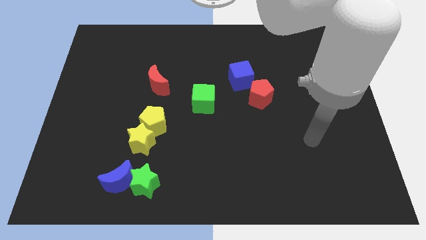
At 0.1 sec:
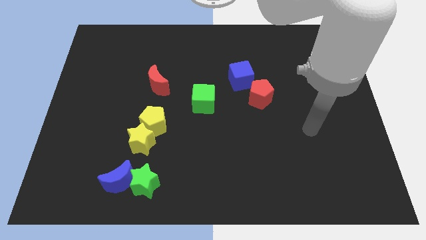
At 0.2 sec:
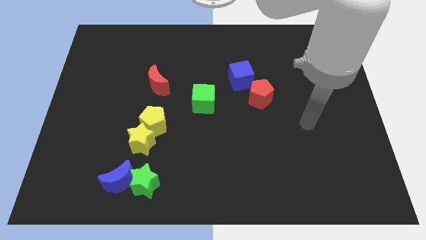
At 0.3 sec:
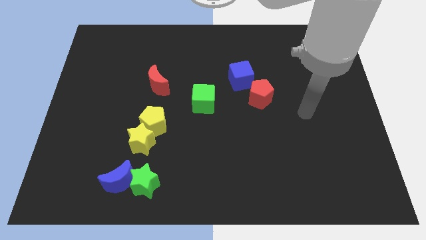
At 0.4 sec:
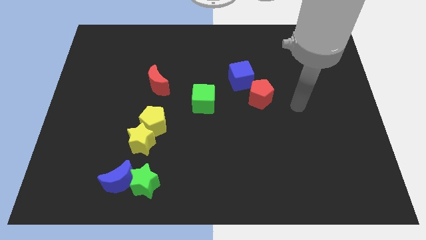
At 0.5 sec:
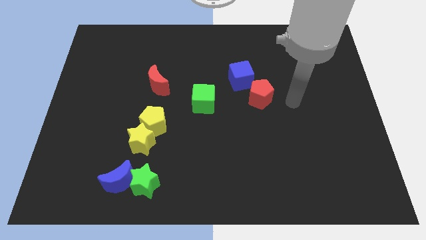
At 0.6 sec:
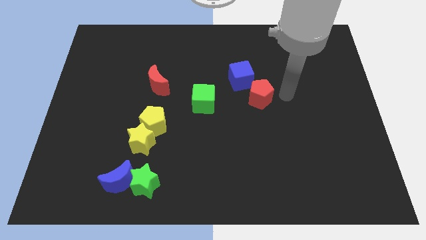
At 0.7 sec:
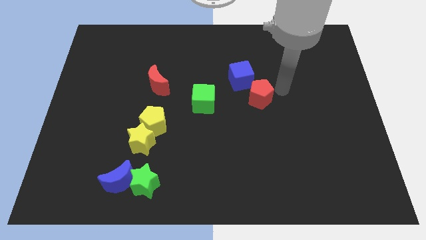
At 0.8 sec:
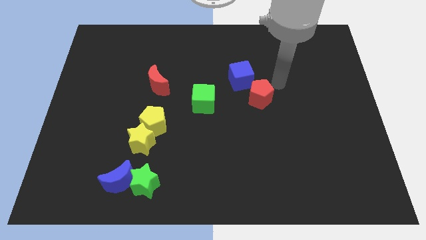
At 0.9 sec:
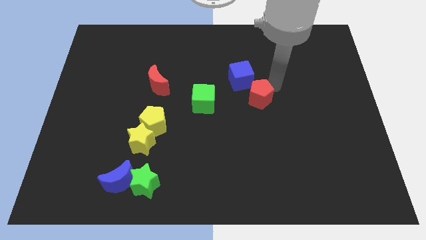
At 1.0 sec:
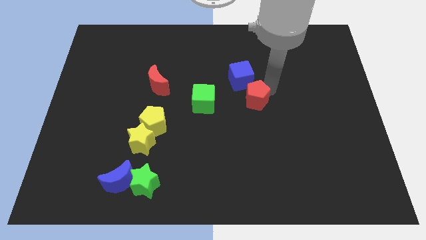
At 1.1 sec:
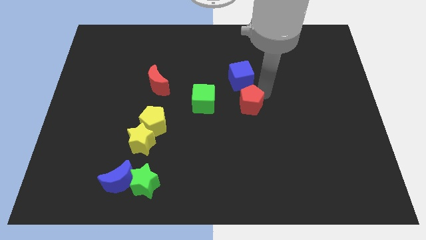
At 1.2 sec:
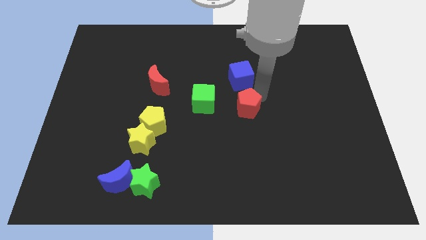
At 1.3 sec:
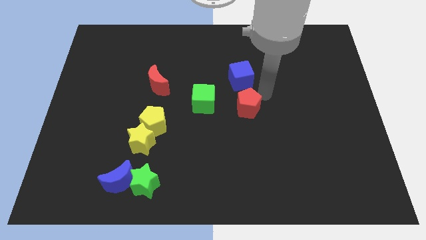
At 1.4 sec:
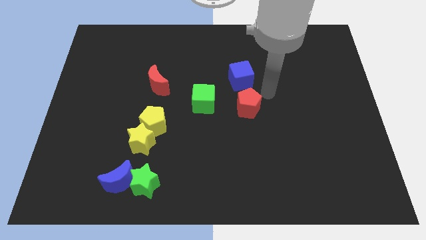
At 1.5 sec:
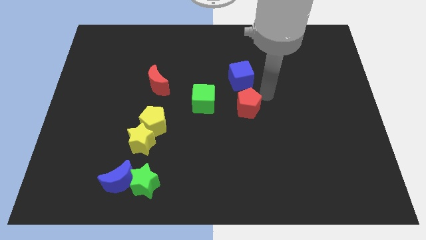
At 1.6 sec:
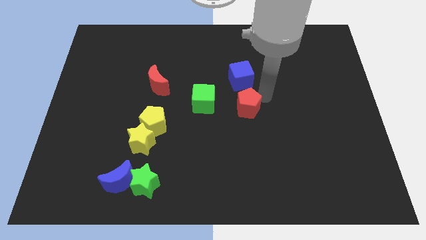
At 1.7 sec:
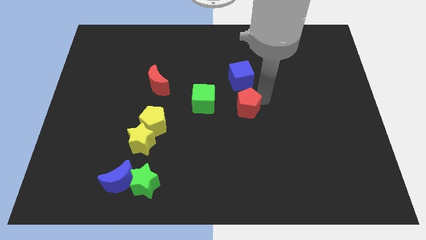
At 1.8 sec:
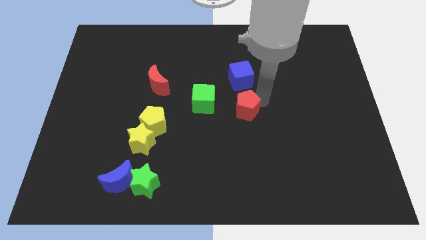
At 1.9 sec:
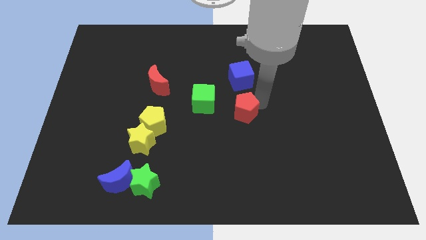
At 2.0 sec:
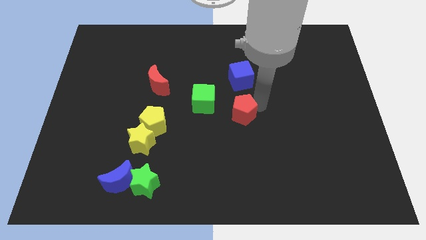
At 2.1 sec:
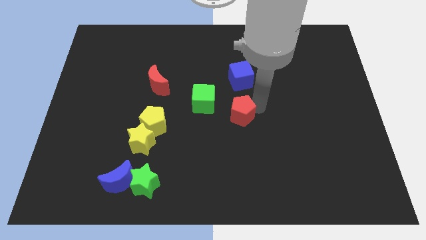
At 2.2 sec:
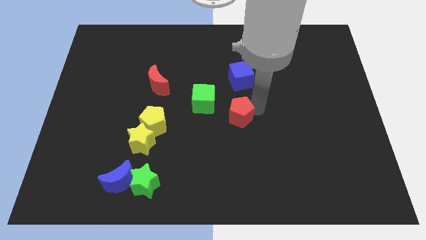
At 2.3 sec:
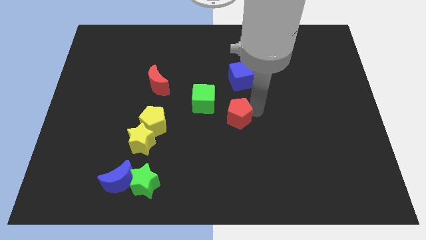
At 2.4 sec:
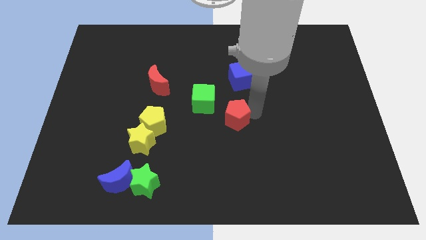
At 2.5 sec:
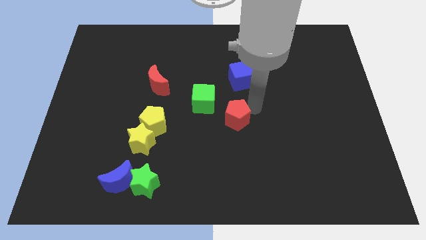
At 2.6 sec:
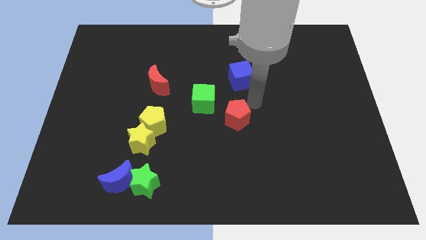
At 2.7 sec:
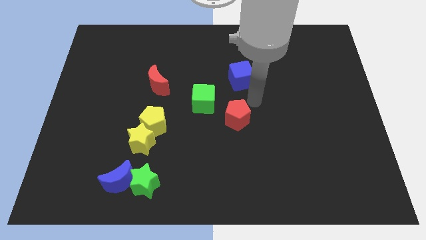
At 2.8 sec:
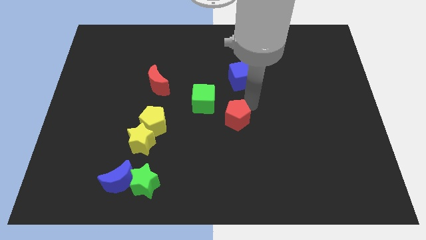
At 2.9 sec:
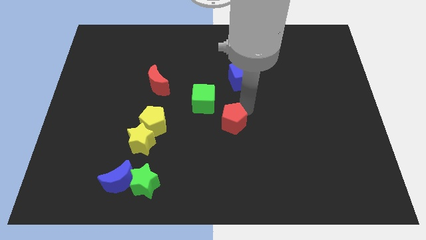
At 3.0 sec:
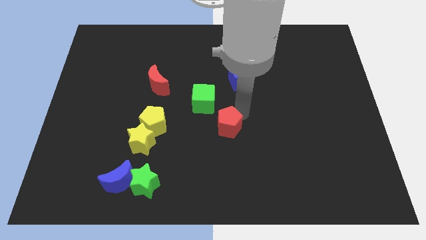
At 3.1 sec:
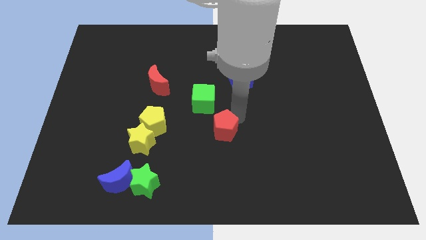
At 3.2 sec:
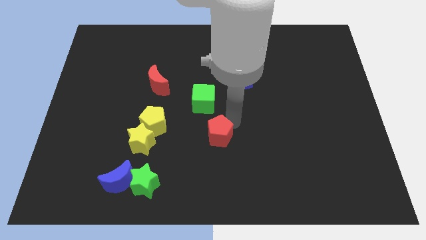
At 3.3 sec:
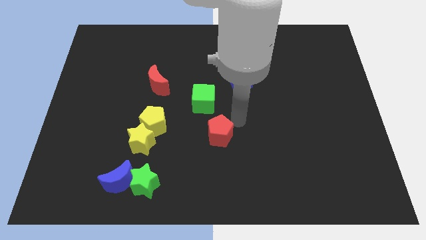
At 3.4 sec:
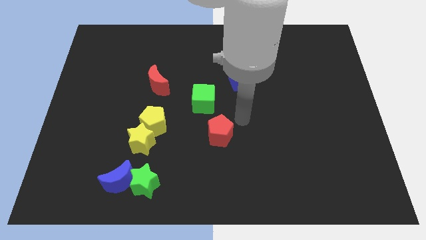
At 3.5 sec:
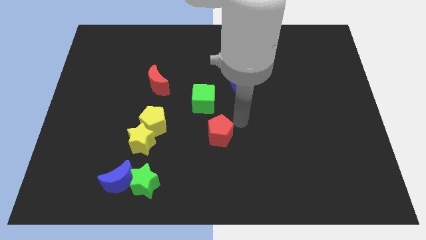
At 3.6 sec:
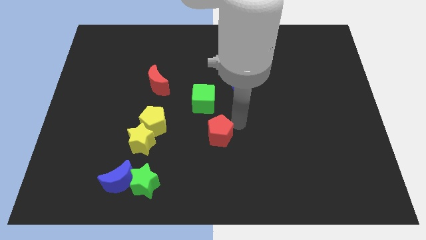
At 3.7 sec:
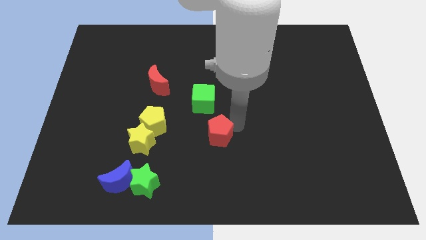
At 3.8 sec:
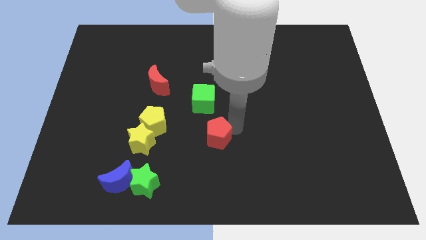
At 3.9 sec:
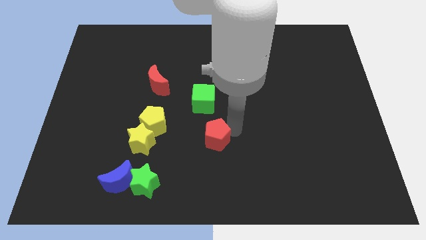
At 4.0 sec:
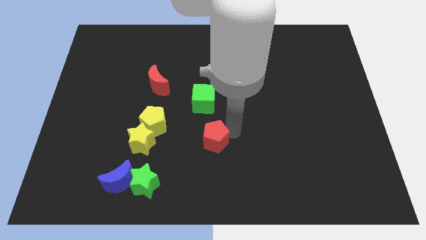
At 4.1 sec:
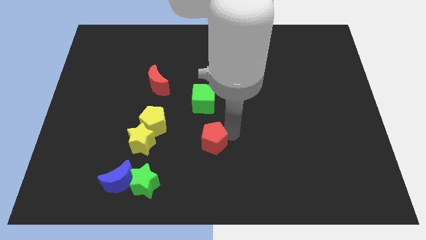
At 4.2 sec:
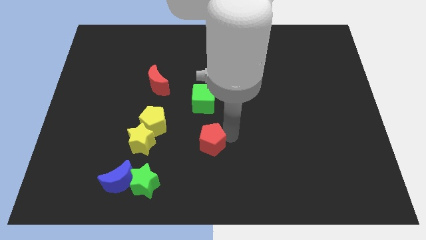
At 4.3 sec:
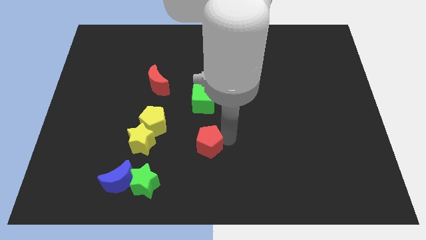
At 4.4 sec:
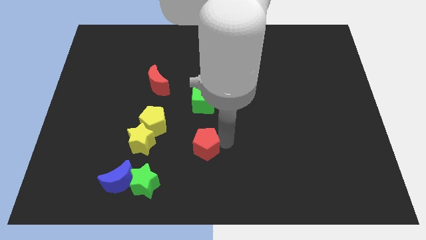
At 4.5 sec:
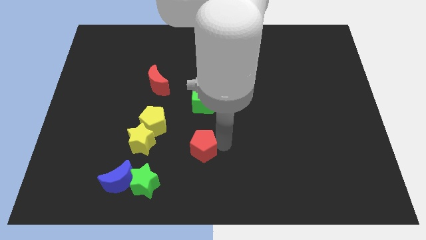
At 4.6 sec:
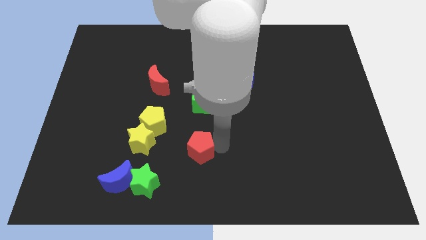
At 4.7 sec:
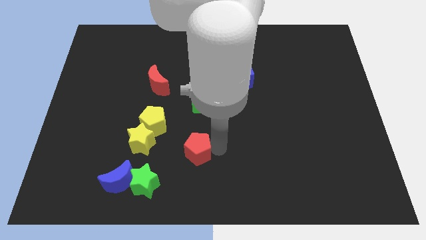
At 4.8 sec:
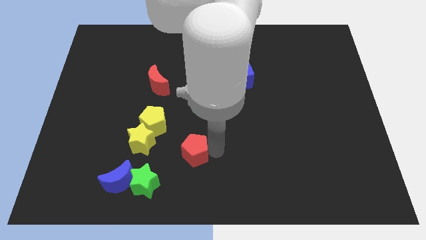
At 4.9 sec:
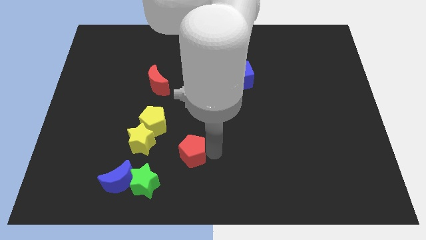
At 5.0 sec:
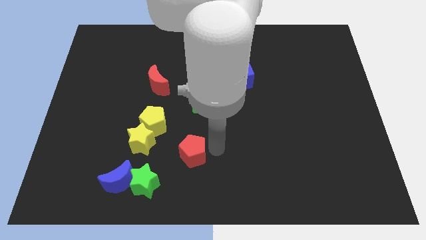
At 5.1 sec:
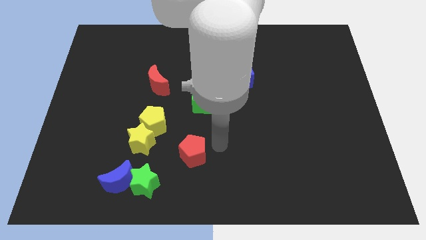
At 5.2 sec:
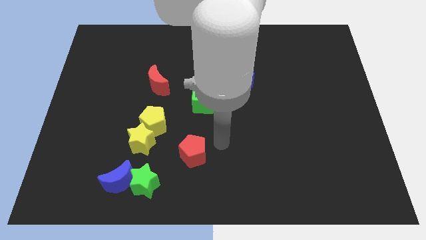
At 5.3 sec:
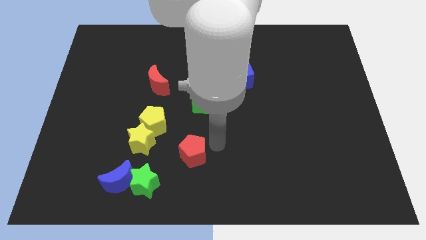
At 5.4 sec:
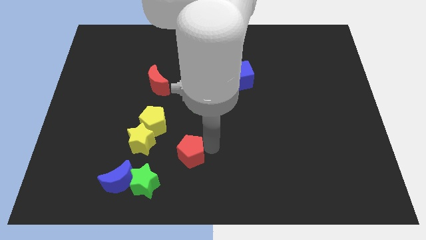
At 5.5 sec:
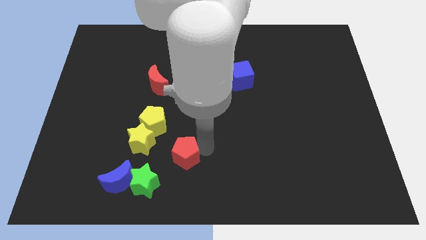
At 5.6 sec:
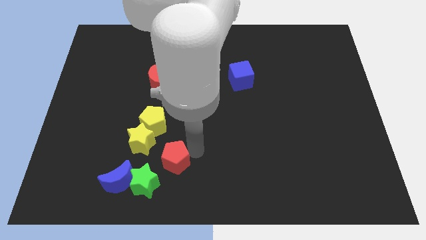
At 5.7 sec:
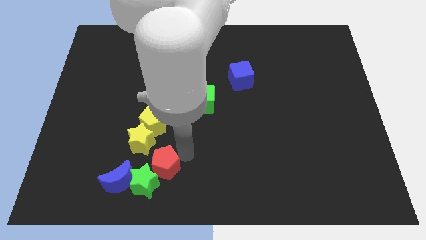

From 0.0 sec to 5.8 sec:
slide the red pentagon close to the green star

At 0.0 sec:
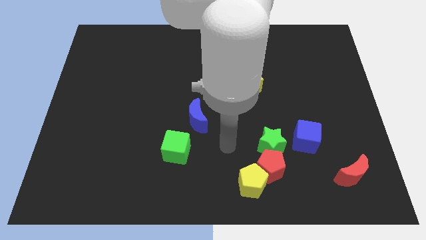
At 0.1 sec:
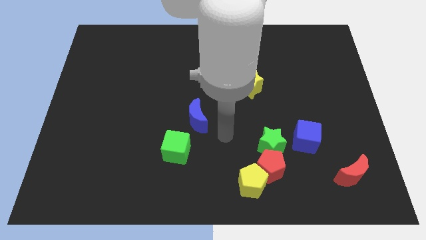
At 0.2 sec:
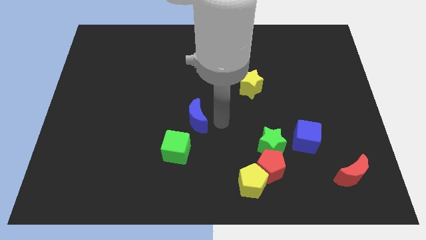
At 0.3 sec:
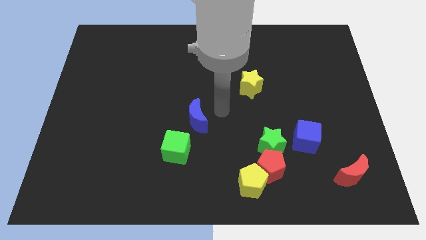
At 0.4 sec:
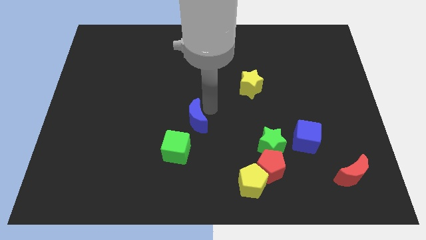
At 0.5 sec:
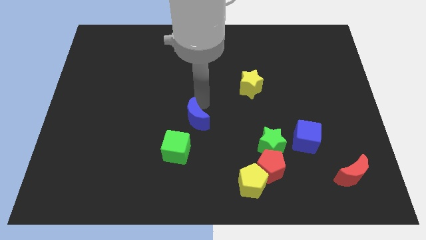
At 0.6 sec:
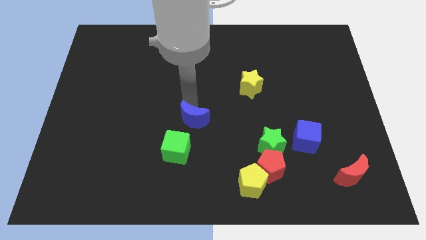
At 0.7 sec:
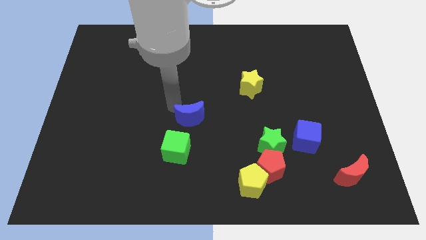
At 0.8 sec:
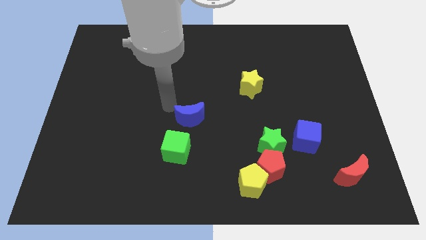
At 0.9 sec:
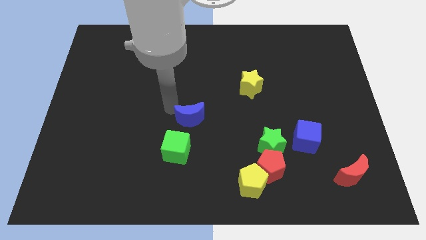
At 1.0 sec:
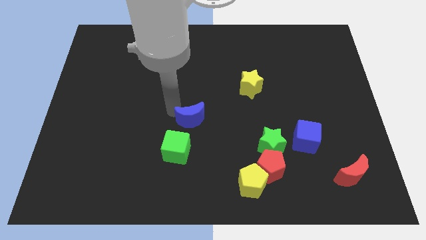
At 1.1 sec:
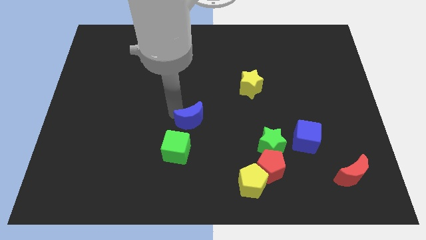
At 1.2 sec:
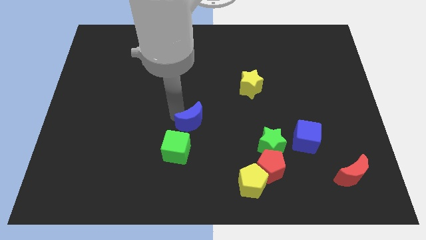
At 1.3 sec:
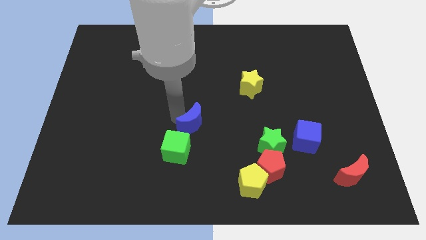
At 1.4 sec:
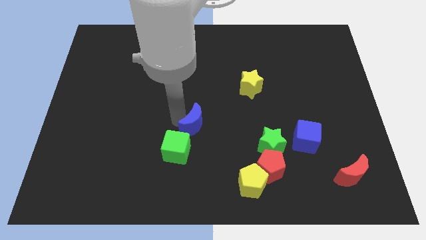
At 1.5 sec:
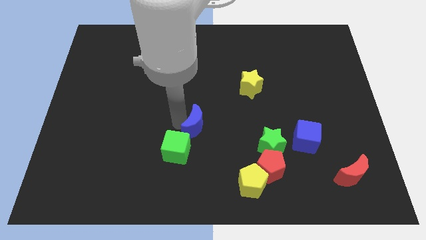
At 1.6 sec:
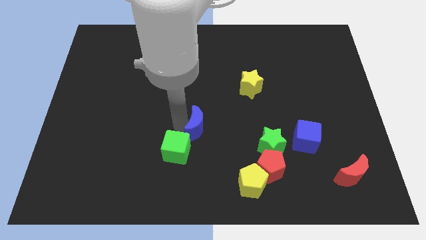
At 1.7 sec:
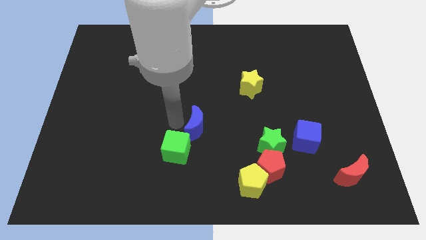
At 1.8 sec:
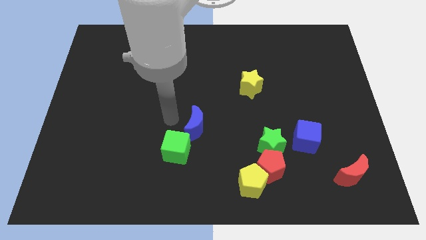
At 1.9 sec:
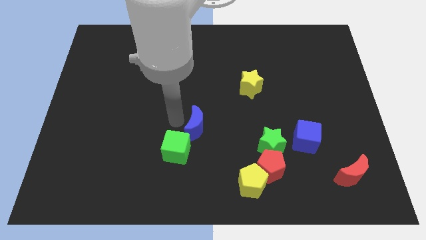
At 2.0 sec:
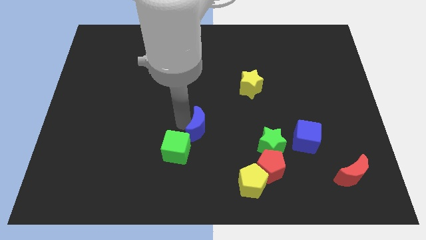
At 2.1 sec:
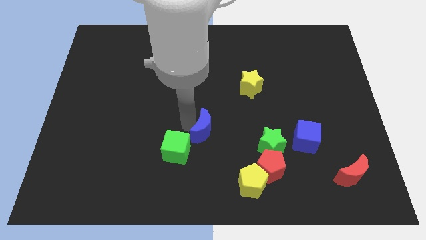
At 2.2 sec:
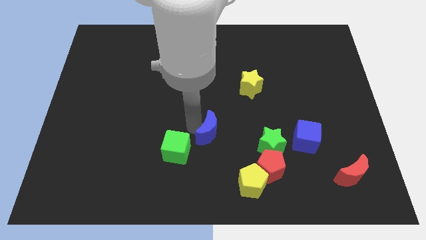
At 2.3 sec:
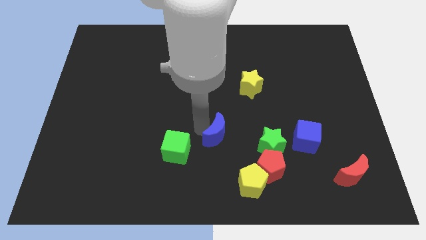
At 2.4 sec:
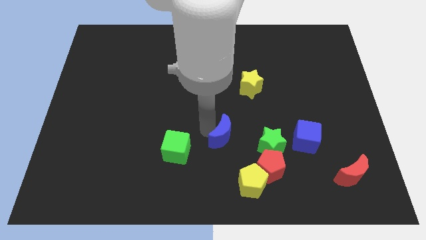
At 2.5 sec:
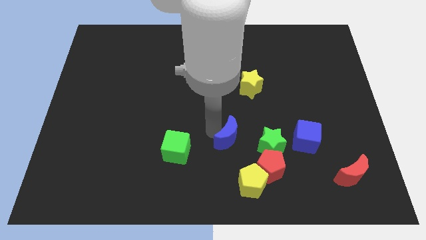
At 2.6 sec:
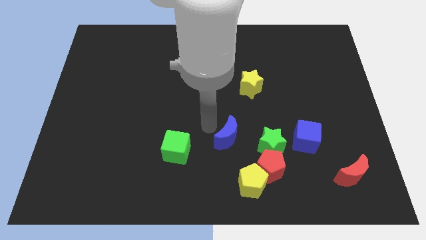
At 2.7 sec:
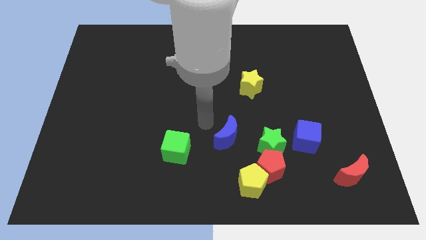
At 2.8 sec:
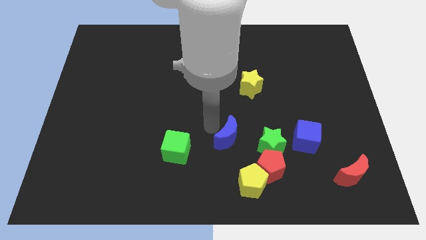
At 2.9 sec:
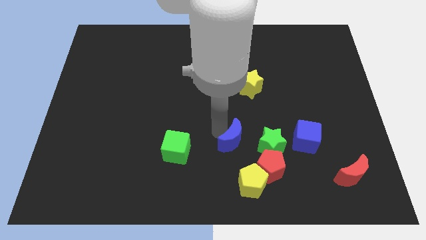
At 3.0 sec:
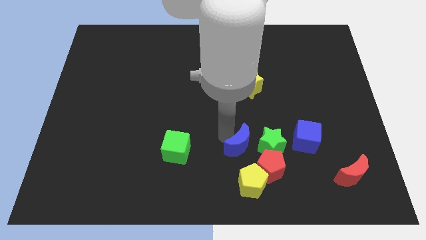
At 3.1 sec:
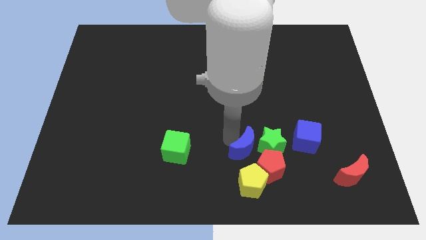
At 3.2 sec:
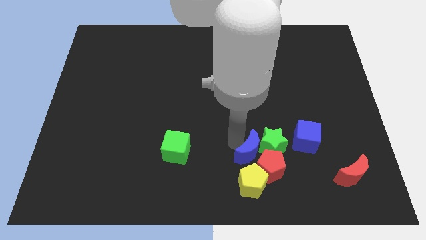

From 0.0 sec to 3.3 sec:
slide the blue moon towards the red pentagon
